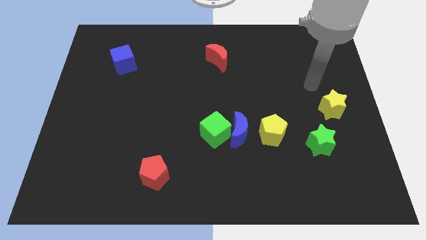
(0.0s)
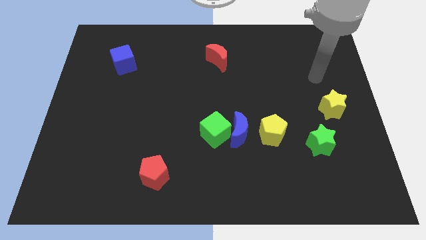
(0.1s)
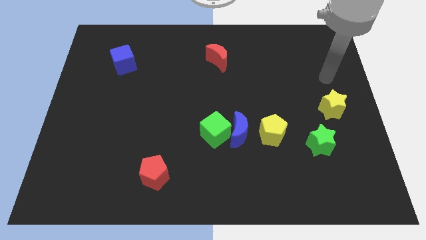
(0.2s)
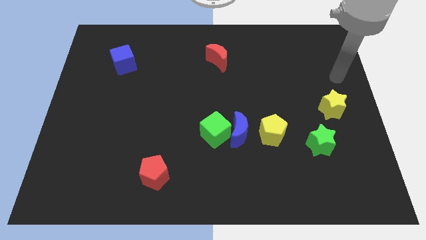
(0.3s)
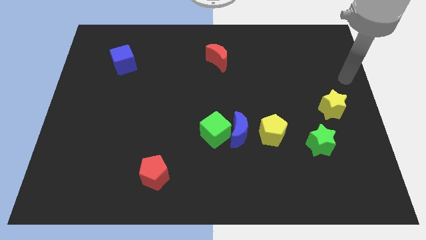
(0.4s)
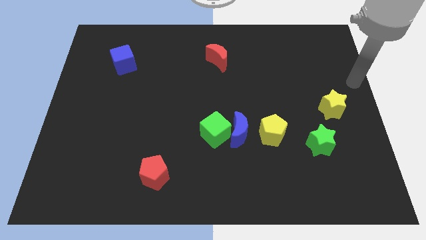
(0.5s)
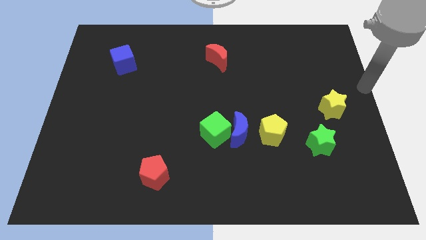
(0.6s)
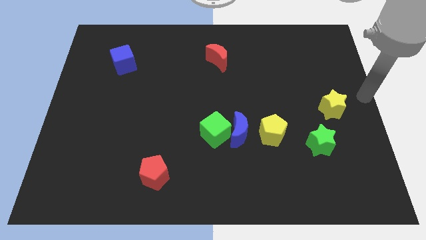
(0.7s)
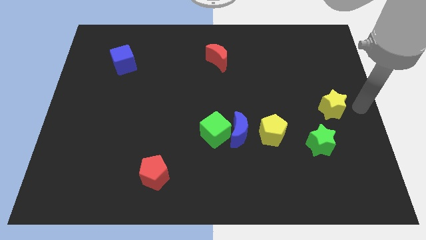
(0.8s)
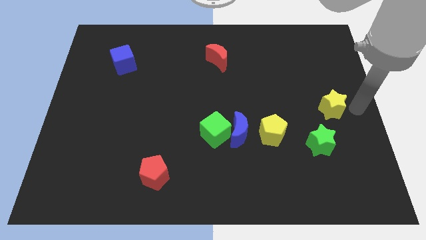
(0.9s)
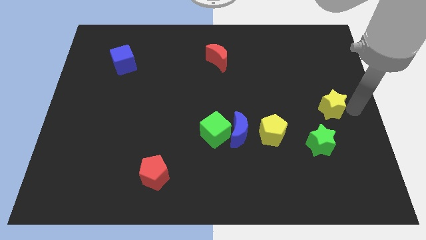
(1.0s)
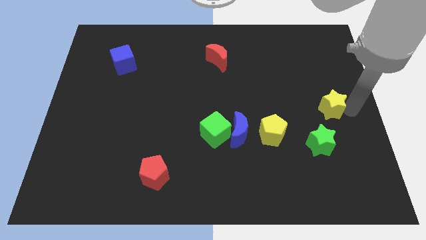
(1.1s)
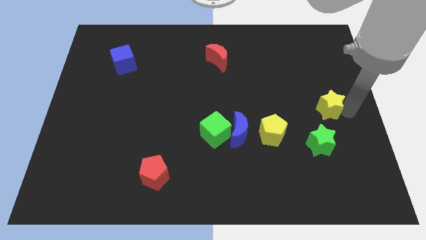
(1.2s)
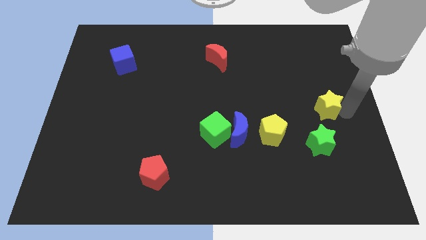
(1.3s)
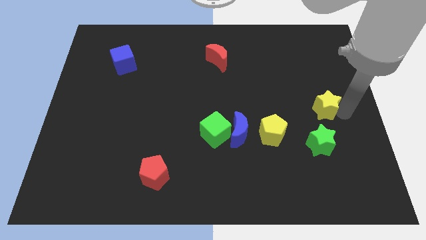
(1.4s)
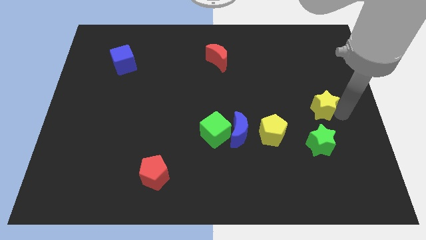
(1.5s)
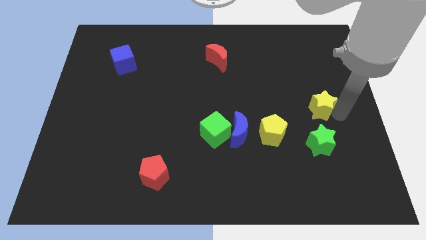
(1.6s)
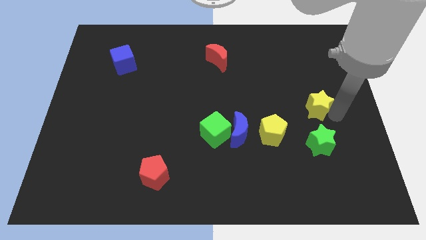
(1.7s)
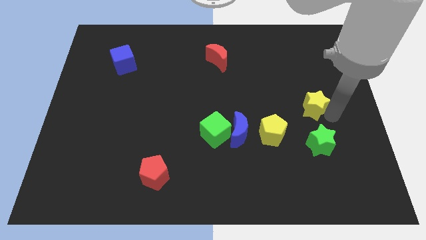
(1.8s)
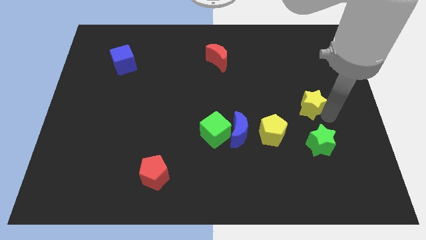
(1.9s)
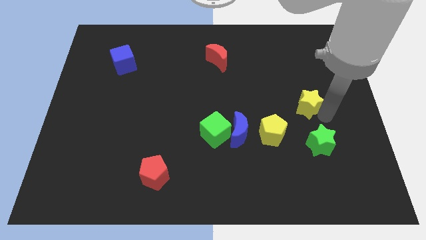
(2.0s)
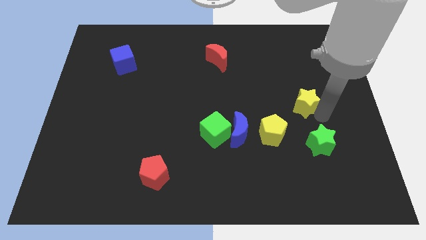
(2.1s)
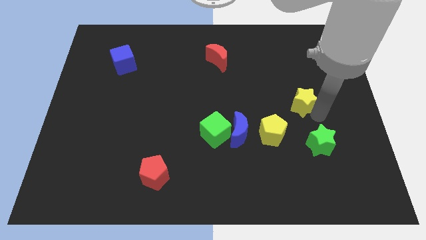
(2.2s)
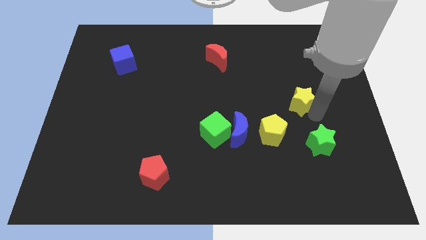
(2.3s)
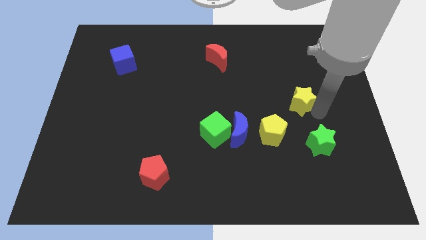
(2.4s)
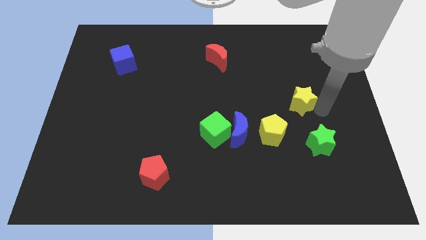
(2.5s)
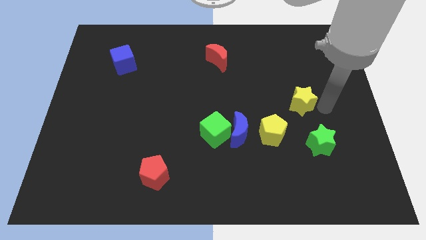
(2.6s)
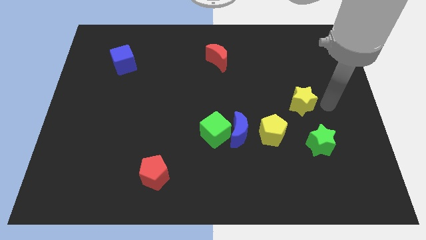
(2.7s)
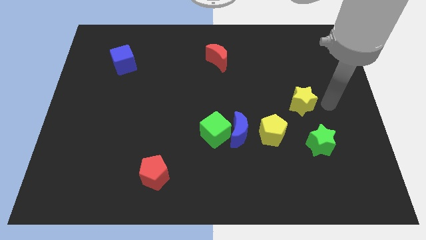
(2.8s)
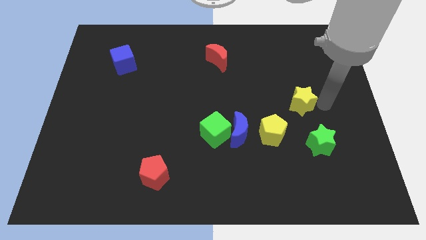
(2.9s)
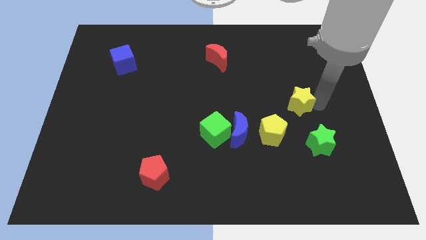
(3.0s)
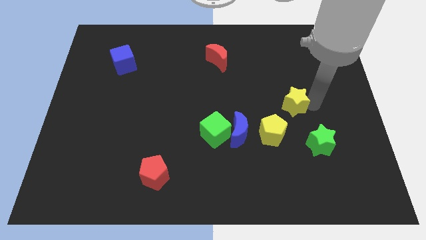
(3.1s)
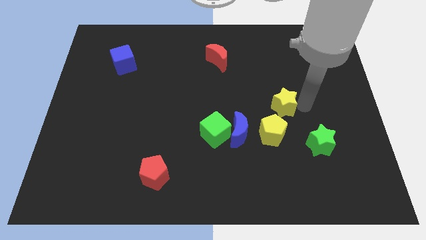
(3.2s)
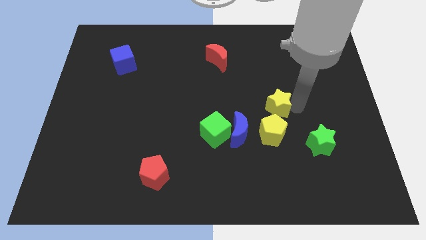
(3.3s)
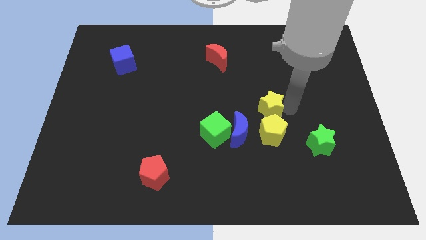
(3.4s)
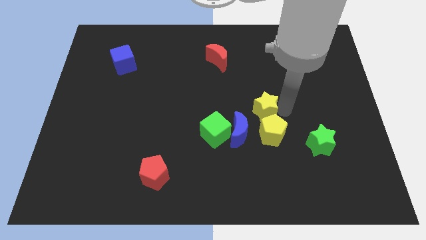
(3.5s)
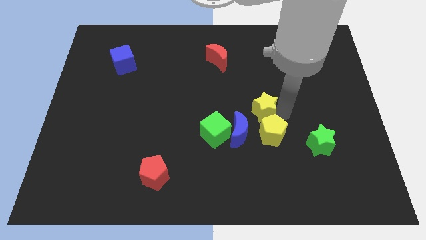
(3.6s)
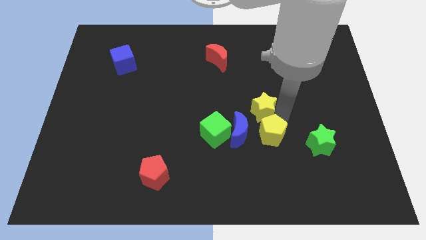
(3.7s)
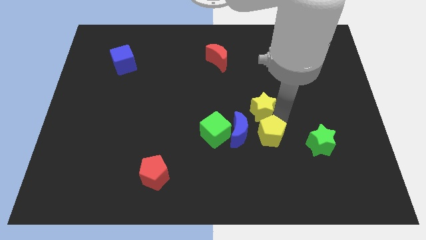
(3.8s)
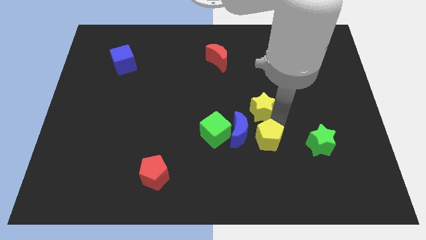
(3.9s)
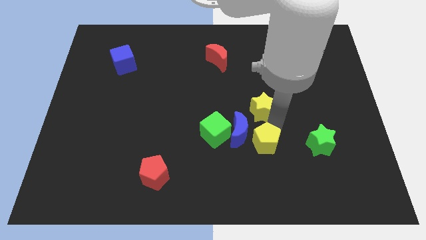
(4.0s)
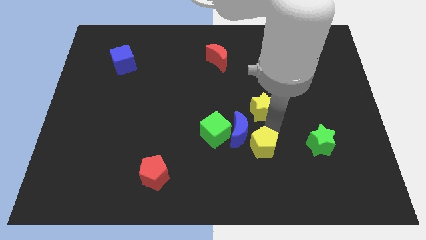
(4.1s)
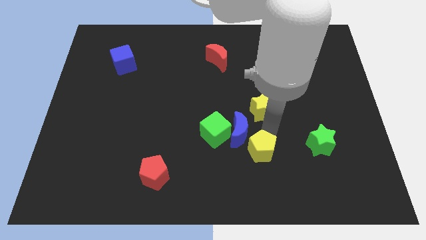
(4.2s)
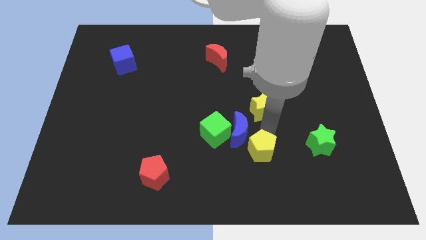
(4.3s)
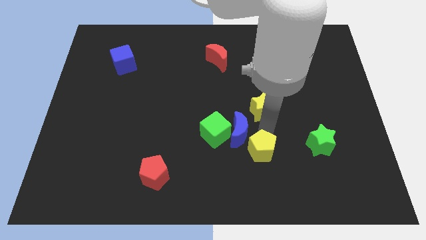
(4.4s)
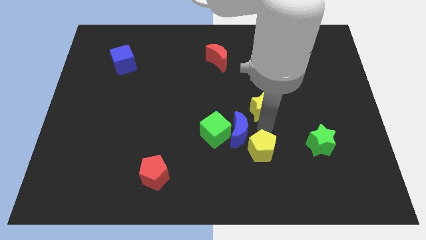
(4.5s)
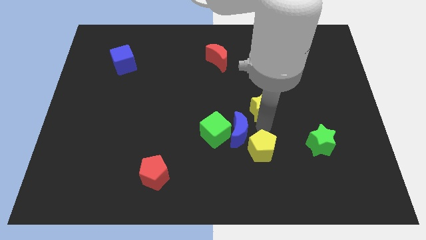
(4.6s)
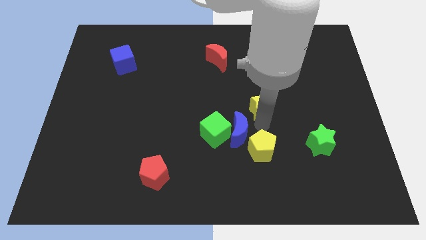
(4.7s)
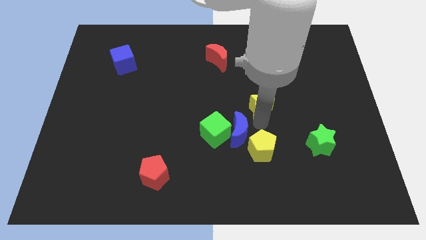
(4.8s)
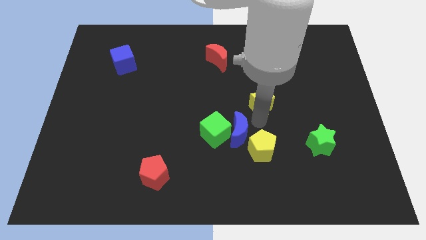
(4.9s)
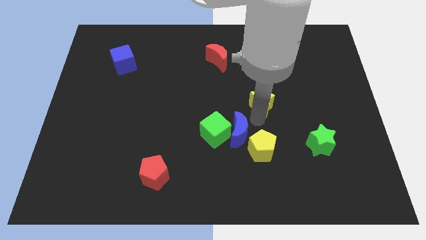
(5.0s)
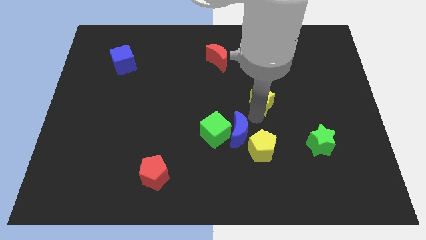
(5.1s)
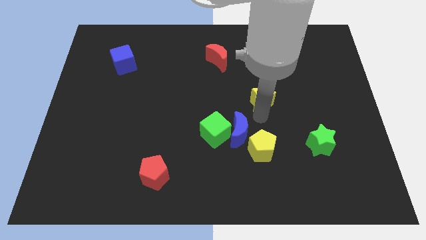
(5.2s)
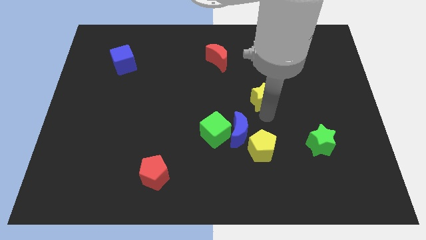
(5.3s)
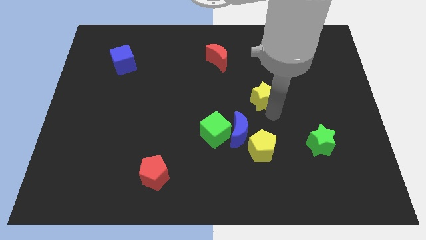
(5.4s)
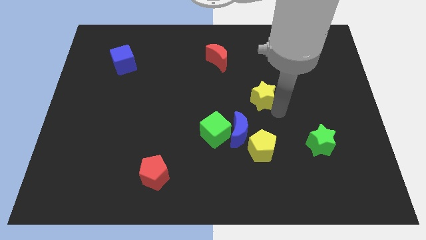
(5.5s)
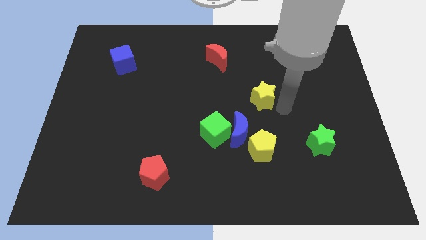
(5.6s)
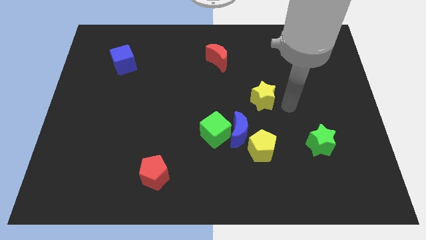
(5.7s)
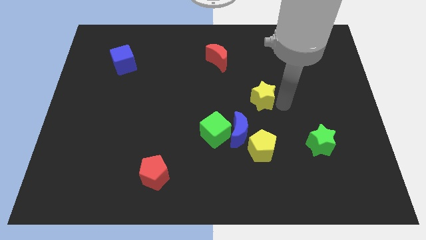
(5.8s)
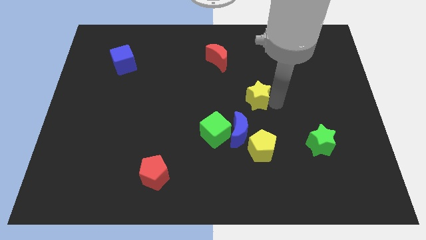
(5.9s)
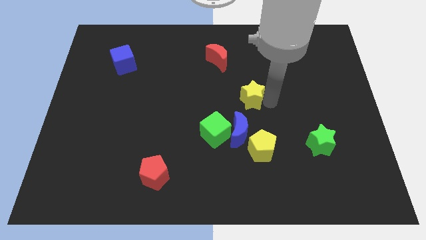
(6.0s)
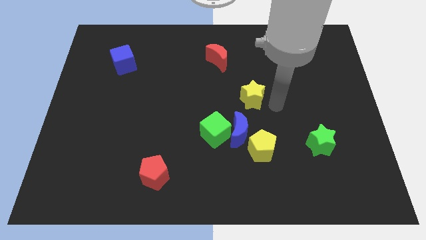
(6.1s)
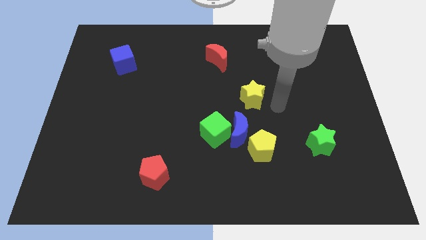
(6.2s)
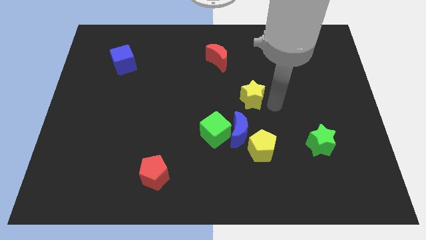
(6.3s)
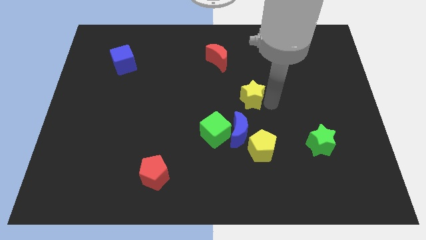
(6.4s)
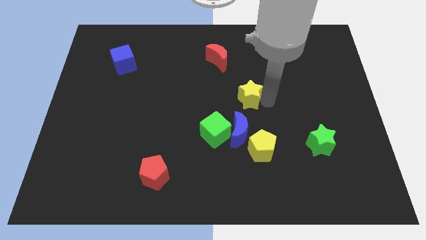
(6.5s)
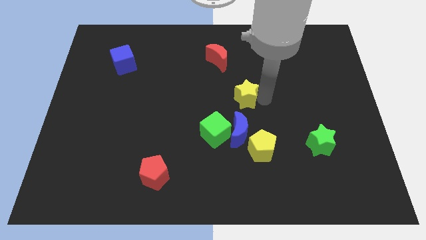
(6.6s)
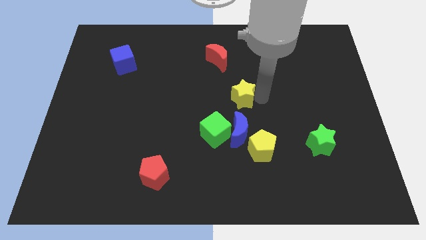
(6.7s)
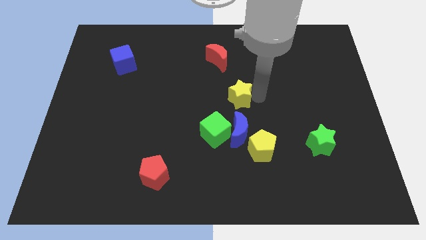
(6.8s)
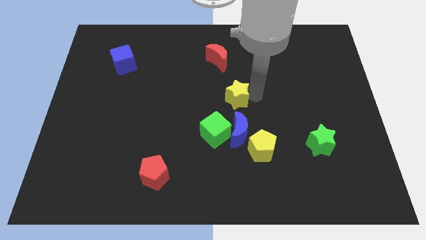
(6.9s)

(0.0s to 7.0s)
move the yellow star below the red moon

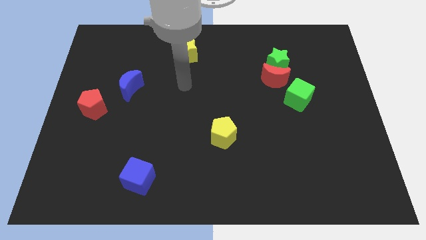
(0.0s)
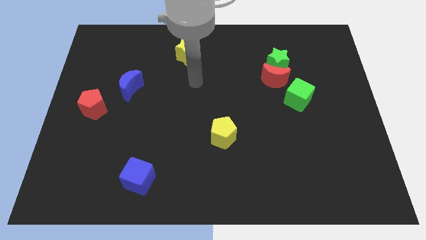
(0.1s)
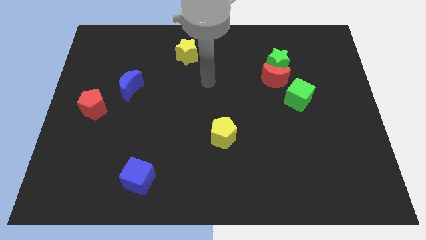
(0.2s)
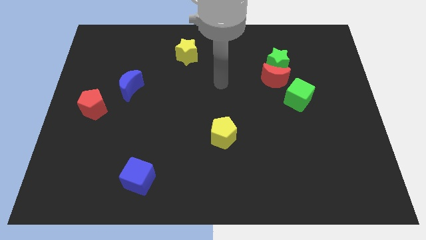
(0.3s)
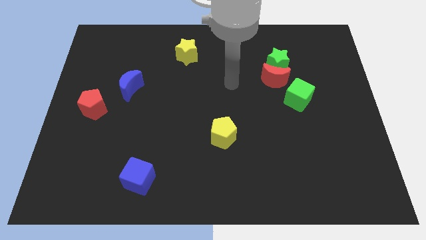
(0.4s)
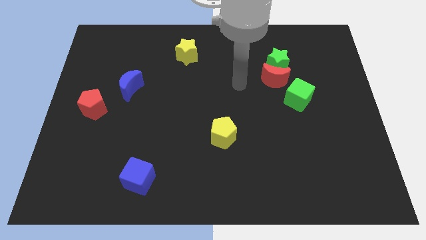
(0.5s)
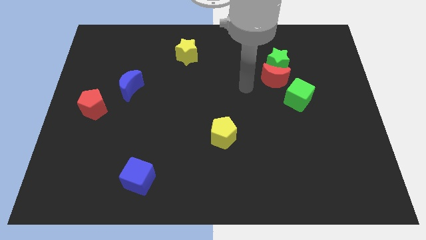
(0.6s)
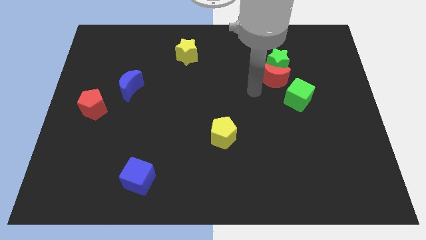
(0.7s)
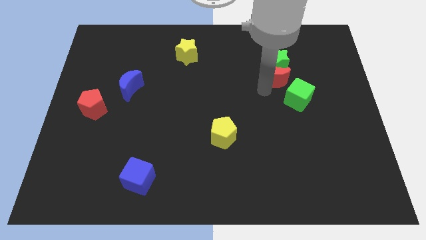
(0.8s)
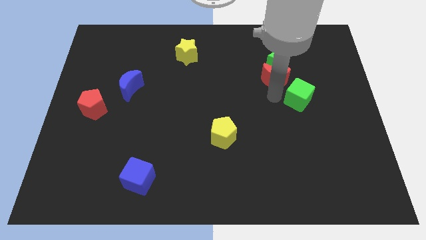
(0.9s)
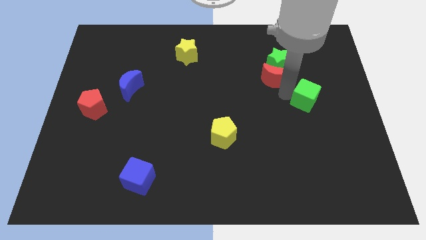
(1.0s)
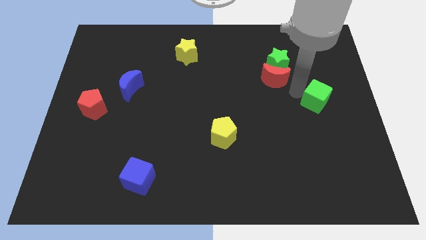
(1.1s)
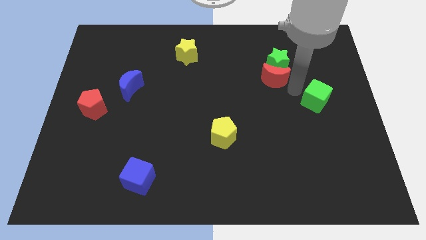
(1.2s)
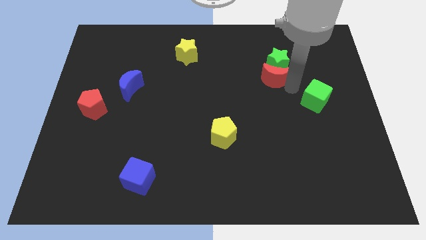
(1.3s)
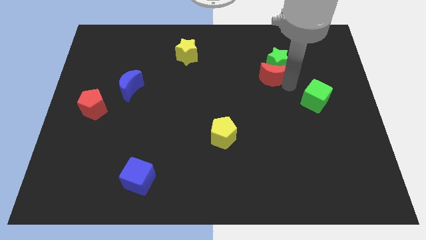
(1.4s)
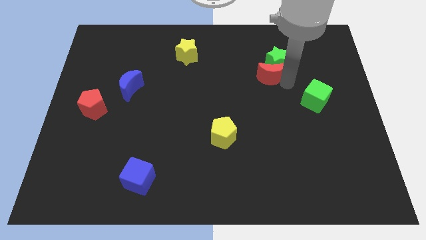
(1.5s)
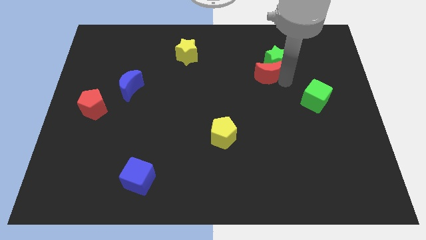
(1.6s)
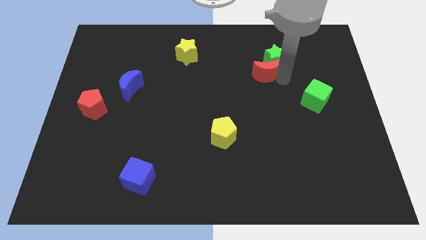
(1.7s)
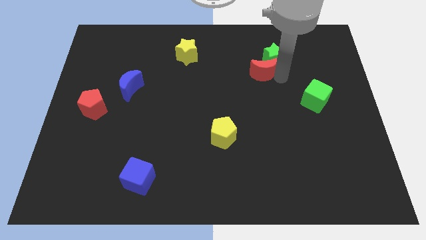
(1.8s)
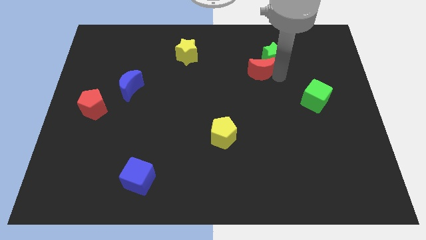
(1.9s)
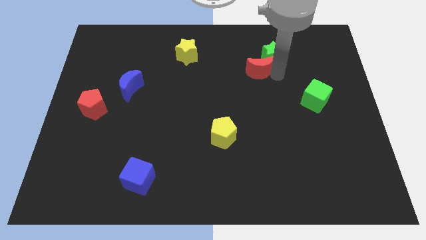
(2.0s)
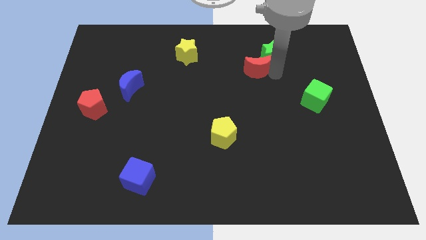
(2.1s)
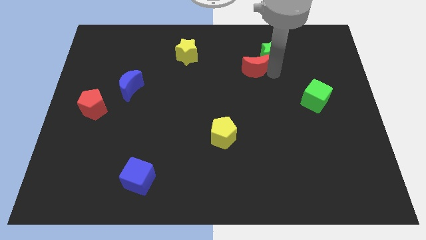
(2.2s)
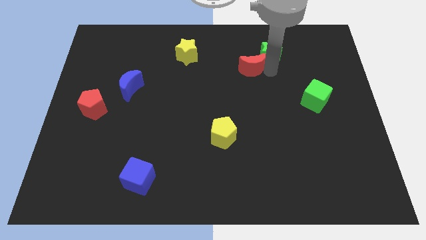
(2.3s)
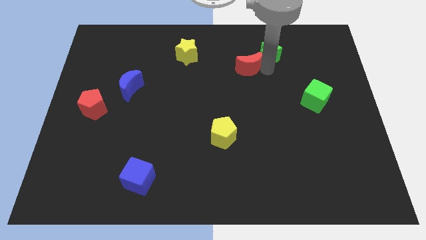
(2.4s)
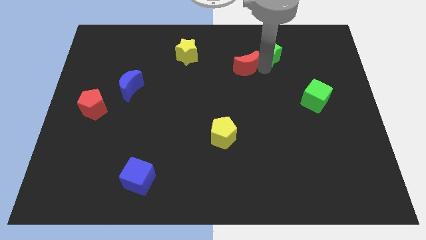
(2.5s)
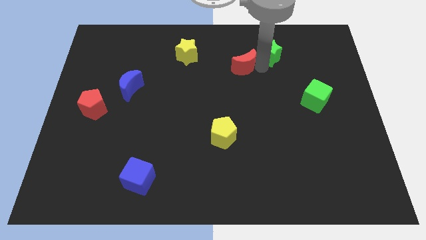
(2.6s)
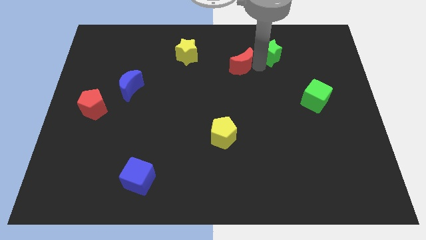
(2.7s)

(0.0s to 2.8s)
slide the red moon right of the yellow star
